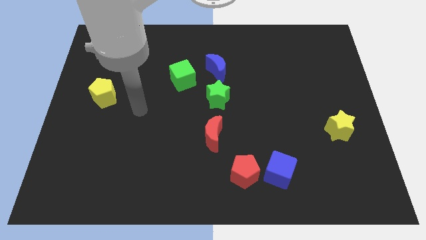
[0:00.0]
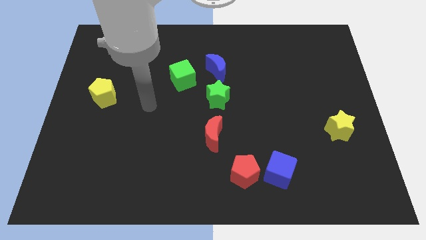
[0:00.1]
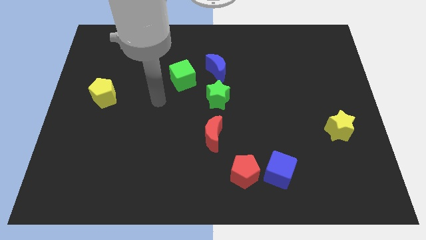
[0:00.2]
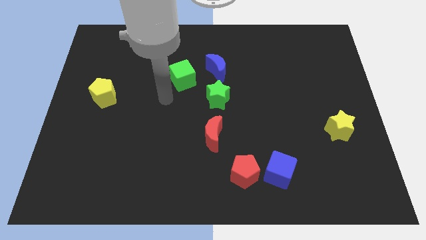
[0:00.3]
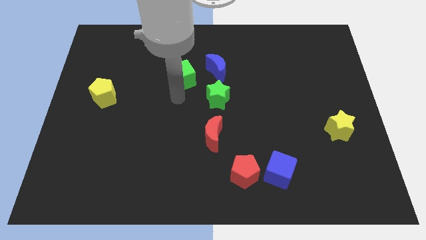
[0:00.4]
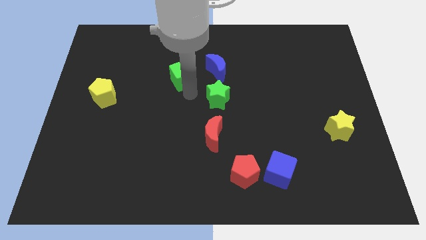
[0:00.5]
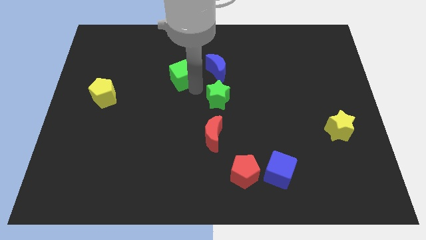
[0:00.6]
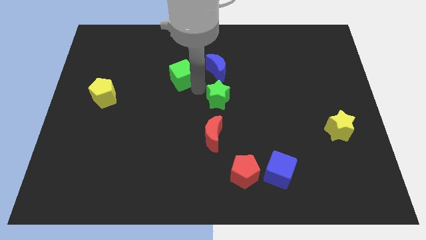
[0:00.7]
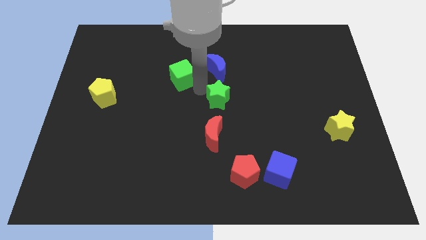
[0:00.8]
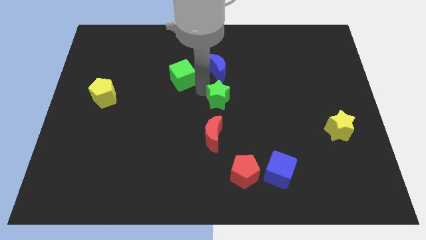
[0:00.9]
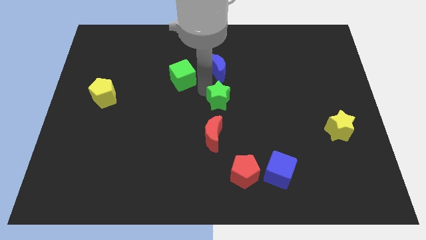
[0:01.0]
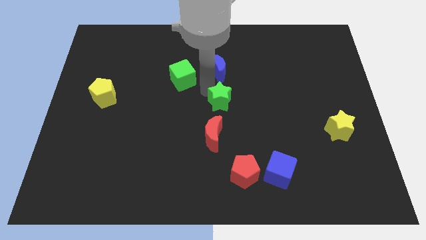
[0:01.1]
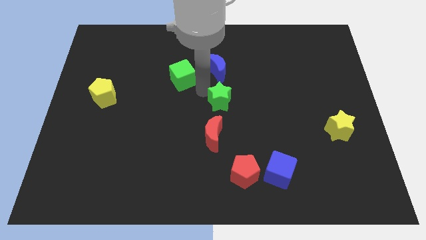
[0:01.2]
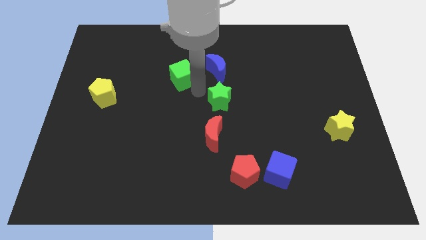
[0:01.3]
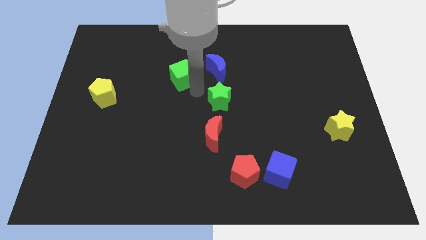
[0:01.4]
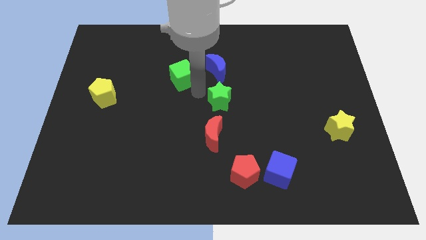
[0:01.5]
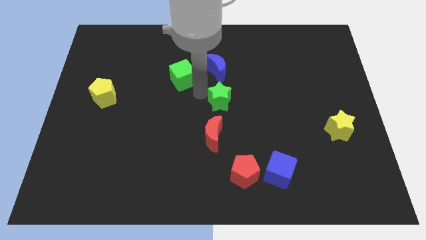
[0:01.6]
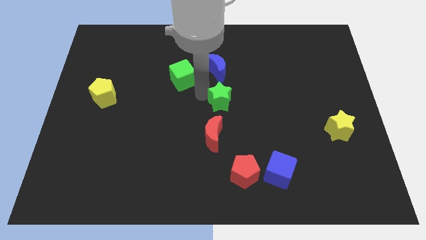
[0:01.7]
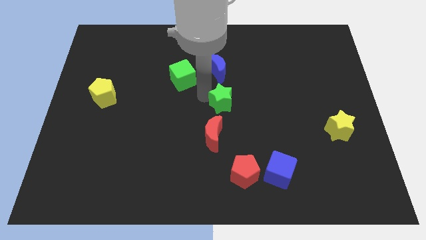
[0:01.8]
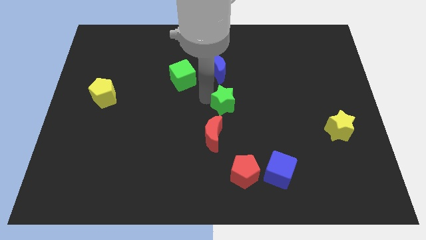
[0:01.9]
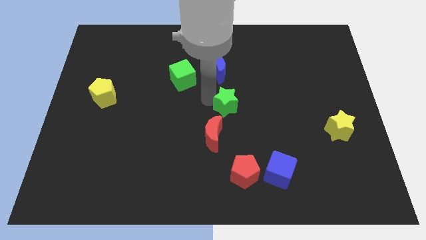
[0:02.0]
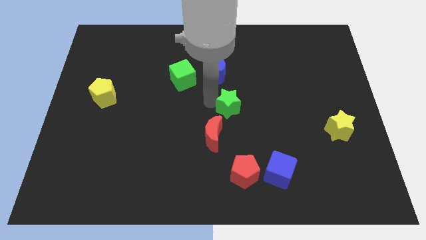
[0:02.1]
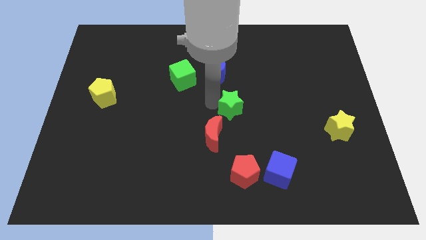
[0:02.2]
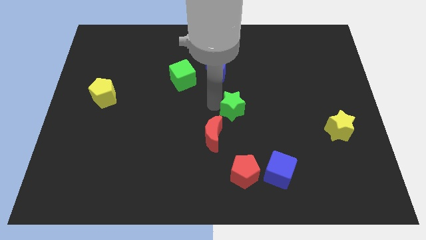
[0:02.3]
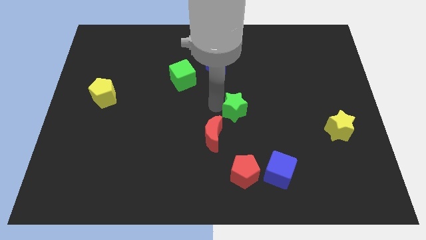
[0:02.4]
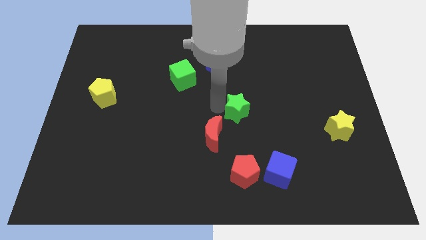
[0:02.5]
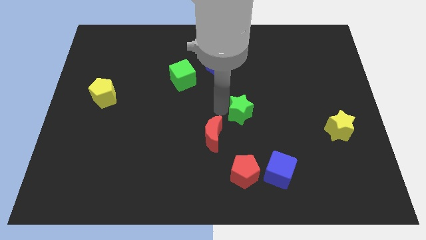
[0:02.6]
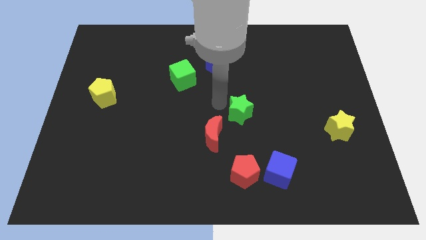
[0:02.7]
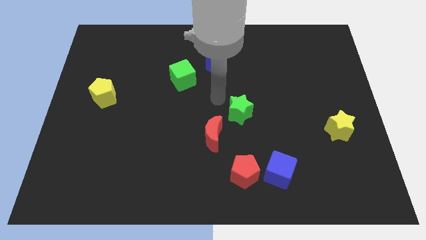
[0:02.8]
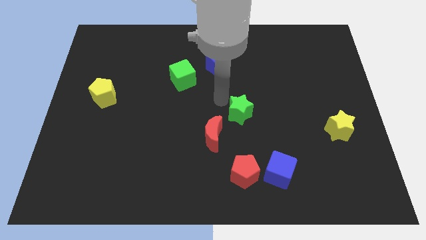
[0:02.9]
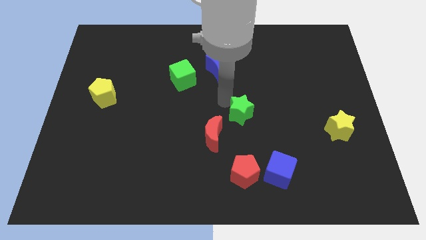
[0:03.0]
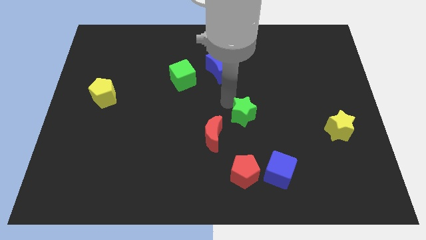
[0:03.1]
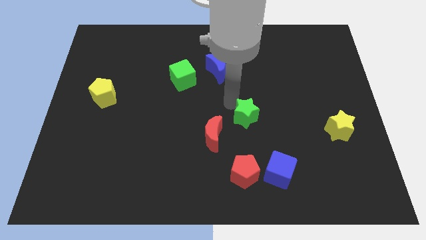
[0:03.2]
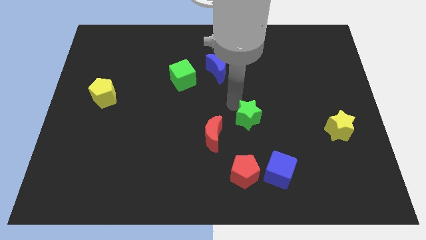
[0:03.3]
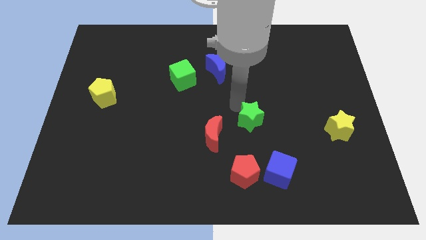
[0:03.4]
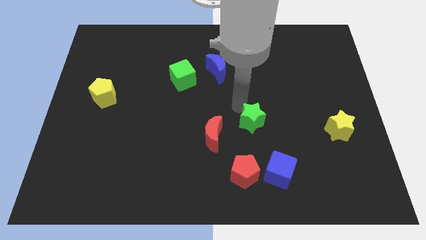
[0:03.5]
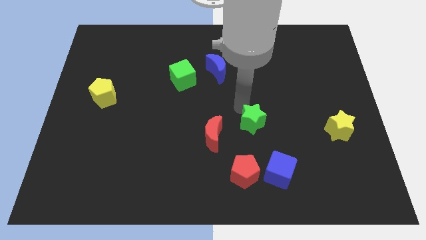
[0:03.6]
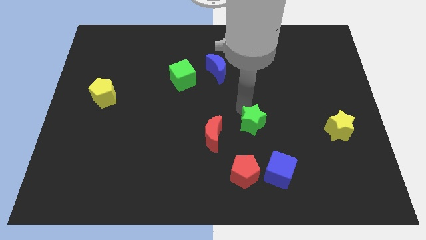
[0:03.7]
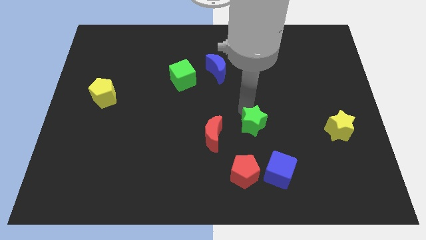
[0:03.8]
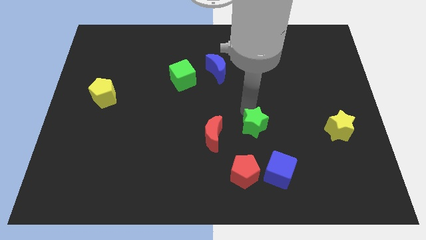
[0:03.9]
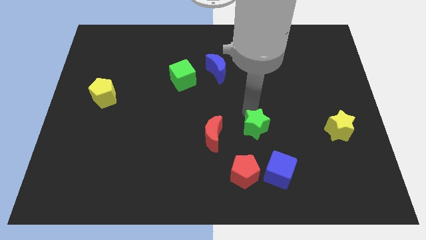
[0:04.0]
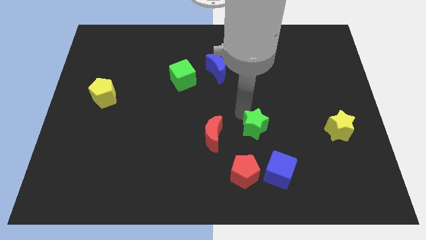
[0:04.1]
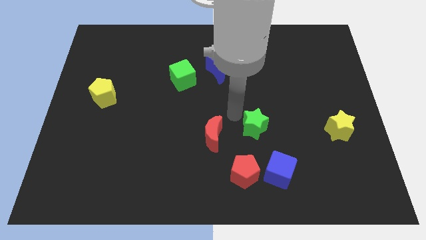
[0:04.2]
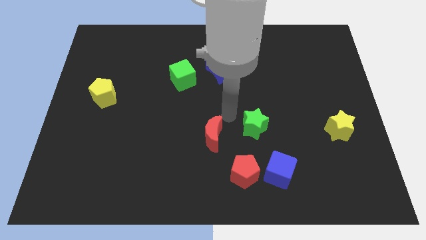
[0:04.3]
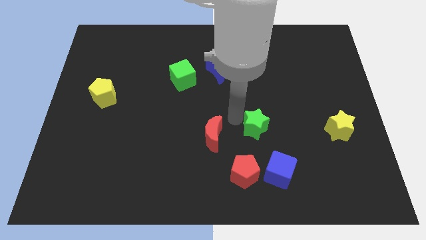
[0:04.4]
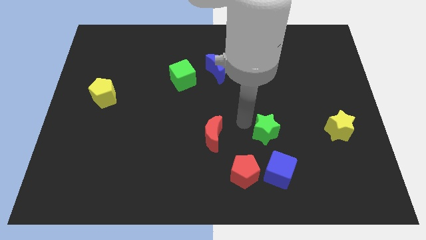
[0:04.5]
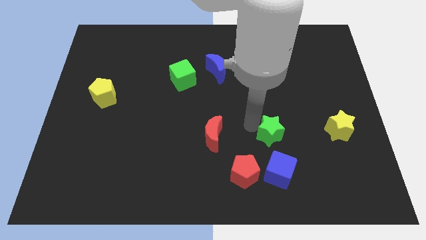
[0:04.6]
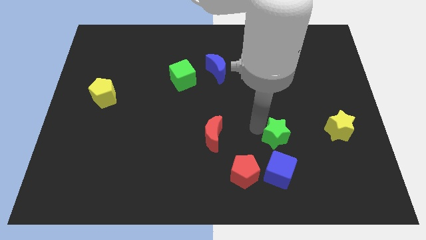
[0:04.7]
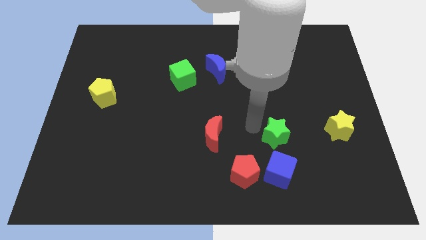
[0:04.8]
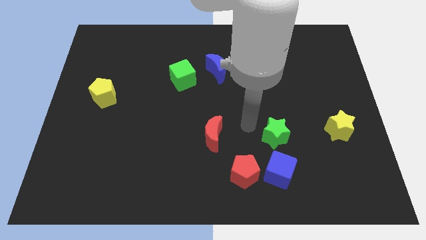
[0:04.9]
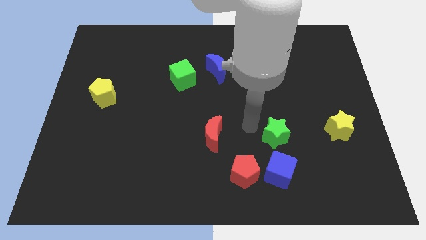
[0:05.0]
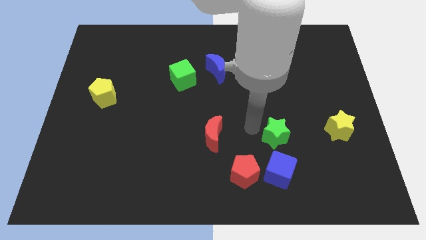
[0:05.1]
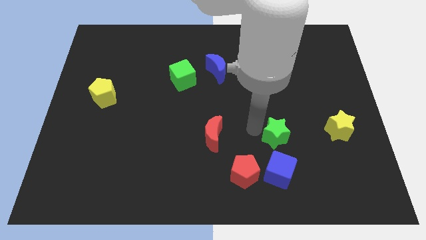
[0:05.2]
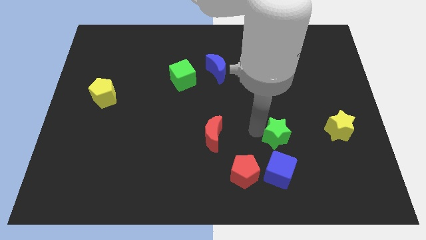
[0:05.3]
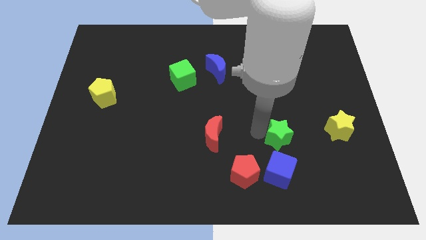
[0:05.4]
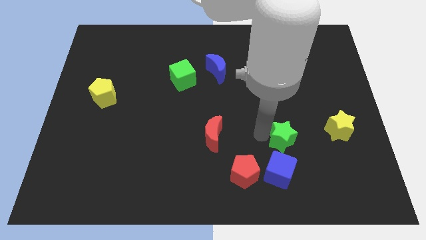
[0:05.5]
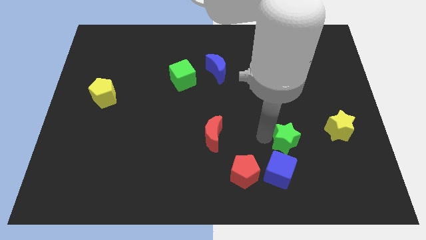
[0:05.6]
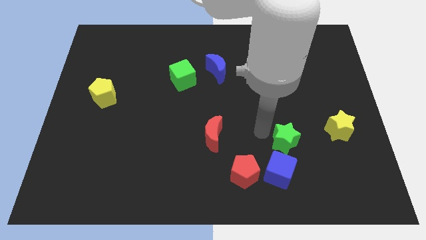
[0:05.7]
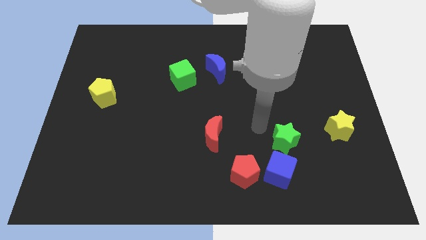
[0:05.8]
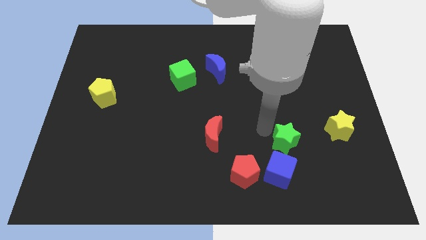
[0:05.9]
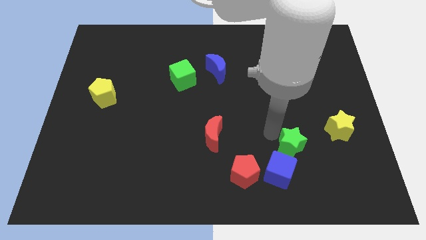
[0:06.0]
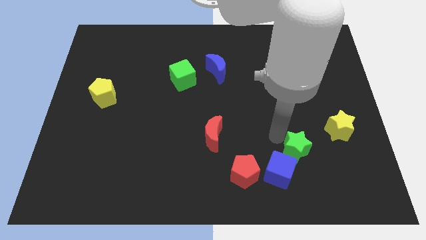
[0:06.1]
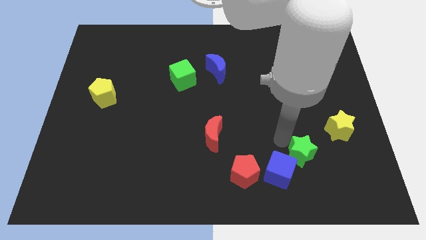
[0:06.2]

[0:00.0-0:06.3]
slide the green star to the right of the blue cube

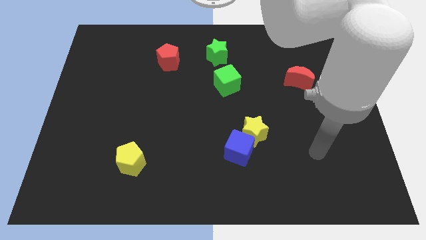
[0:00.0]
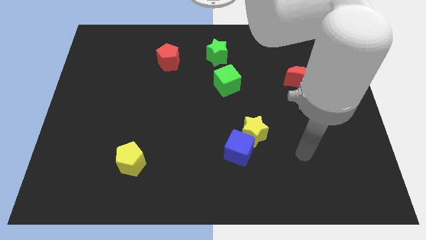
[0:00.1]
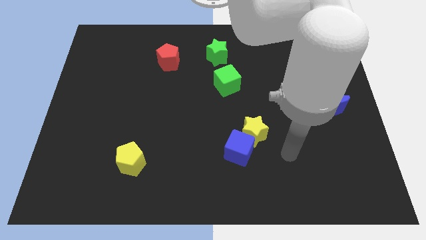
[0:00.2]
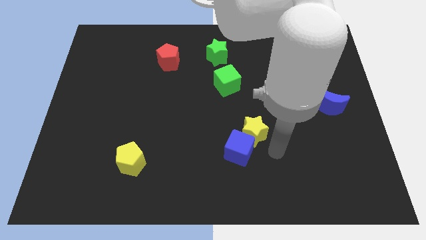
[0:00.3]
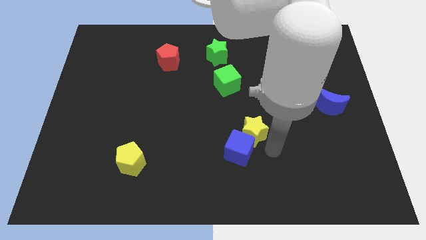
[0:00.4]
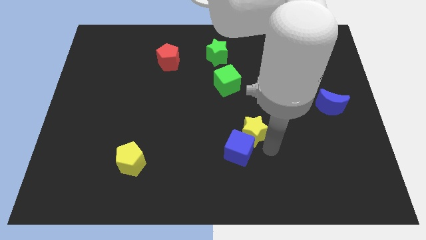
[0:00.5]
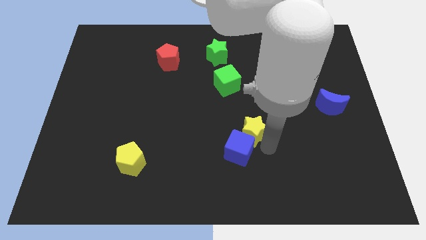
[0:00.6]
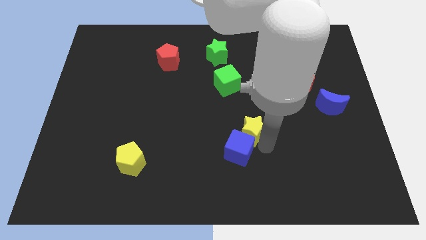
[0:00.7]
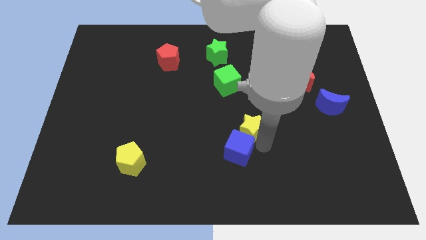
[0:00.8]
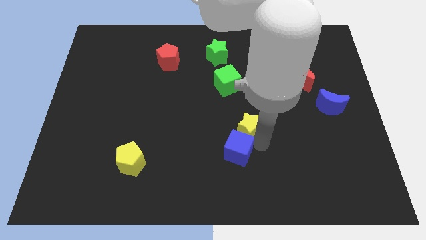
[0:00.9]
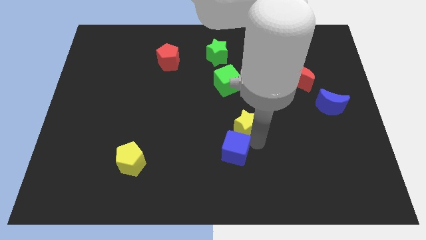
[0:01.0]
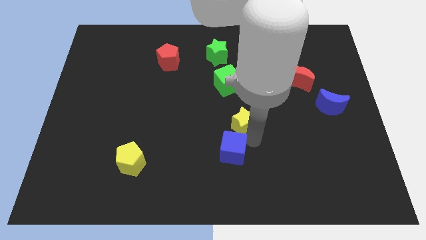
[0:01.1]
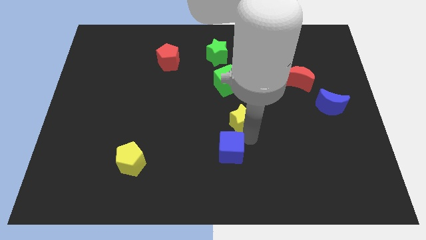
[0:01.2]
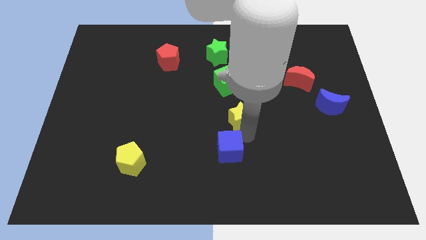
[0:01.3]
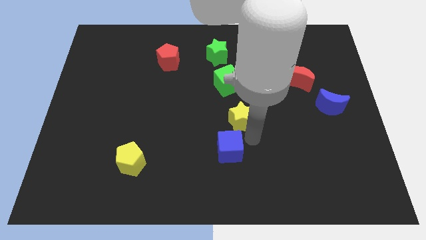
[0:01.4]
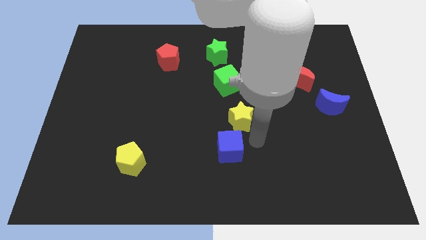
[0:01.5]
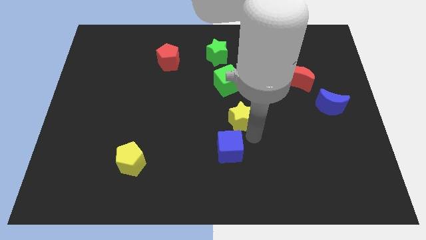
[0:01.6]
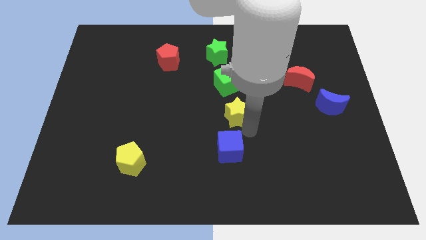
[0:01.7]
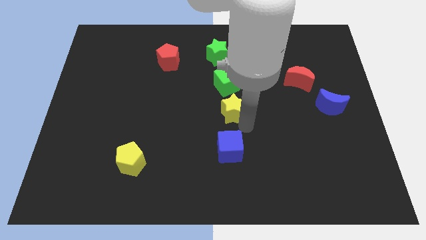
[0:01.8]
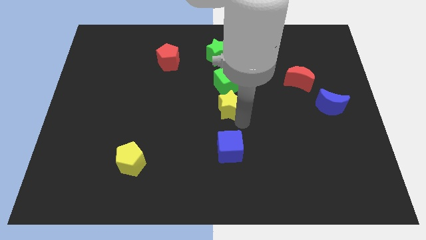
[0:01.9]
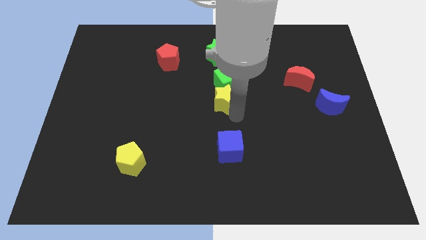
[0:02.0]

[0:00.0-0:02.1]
put the yellow star to the bottom of the green star

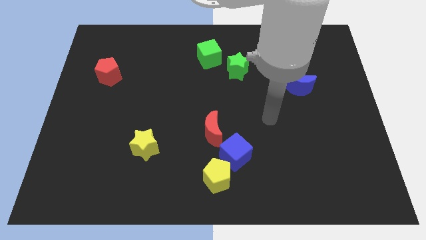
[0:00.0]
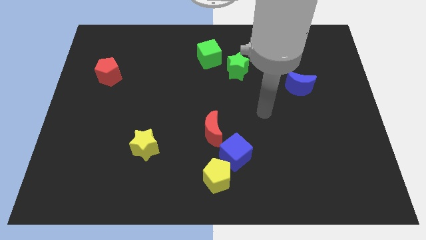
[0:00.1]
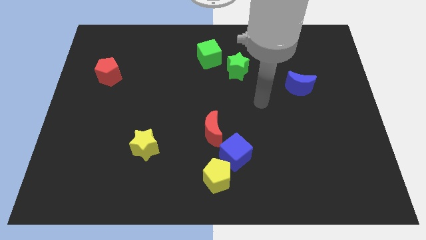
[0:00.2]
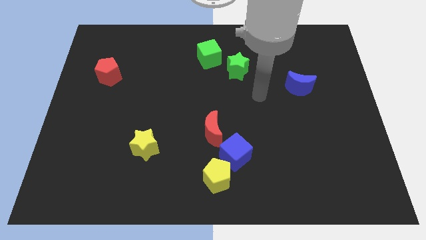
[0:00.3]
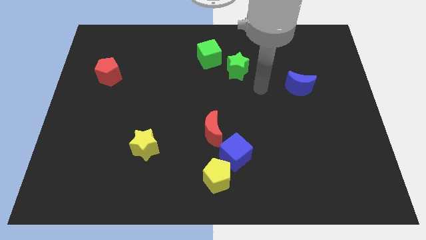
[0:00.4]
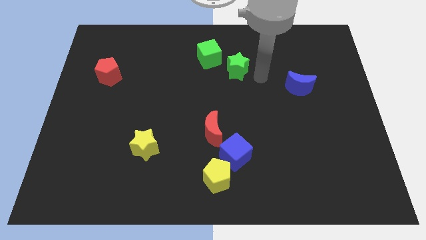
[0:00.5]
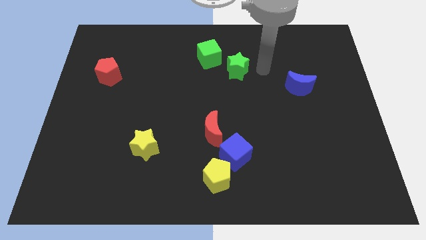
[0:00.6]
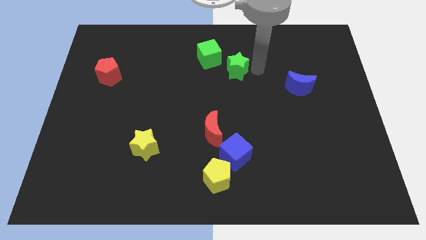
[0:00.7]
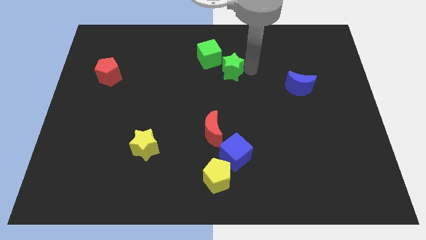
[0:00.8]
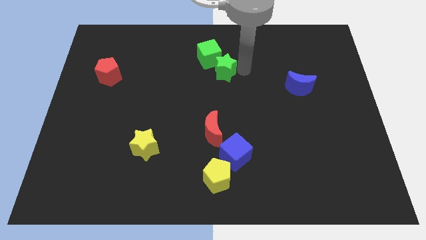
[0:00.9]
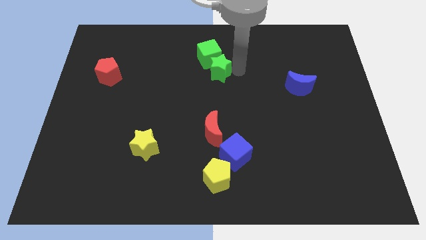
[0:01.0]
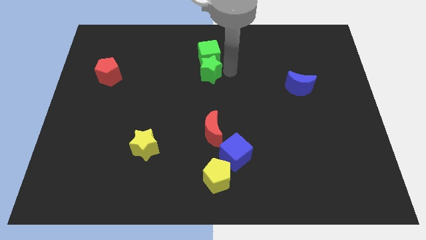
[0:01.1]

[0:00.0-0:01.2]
push the green star to the bottom left of the green cube
